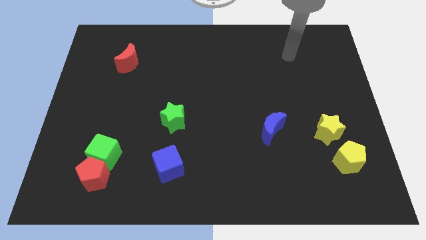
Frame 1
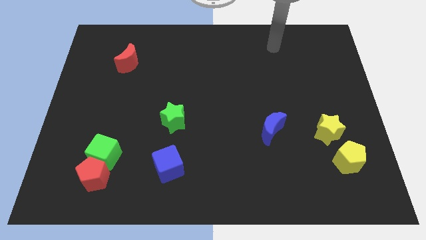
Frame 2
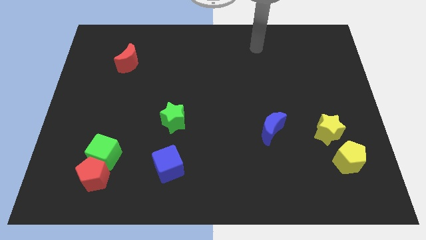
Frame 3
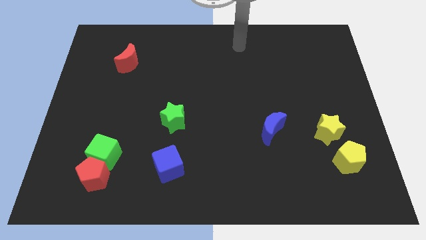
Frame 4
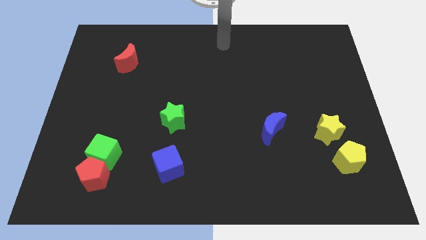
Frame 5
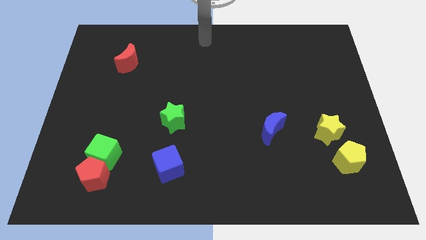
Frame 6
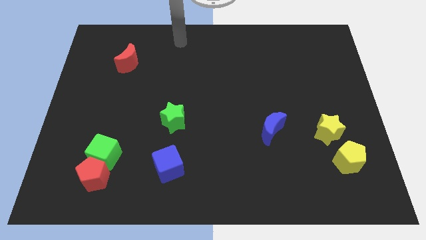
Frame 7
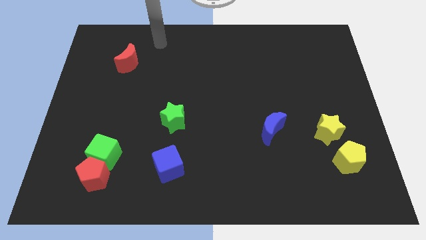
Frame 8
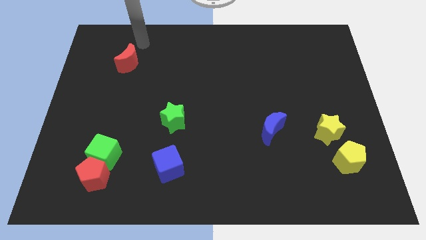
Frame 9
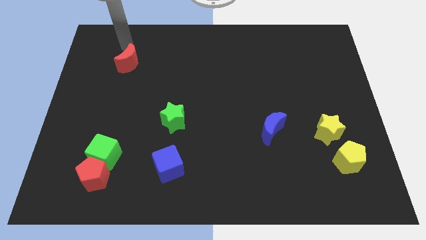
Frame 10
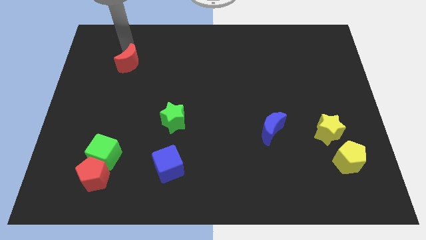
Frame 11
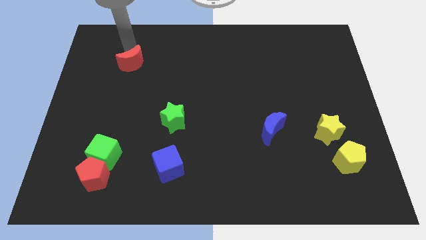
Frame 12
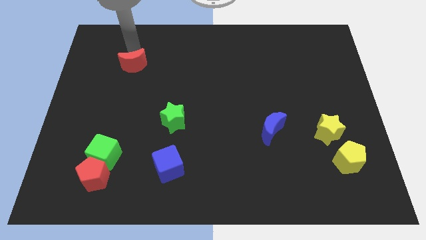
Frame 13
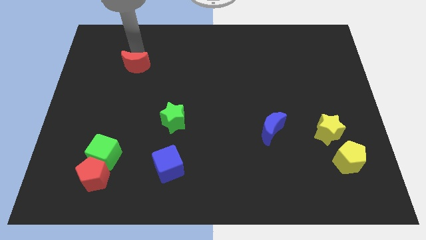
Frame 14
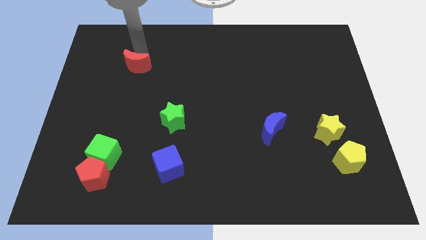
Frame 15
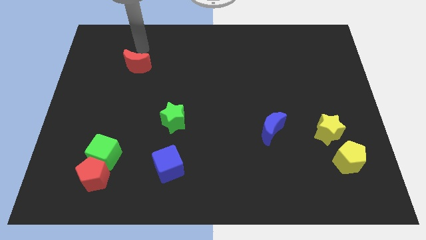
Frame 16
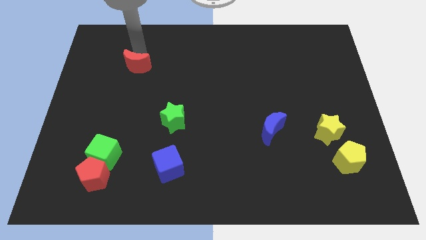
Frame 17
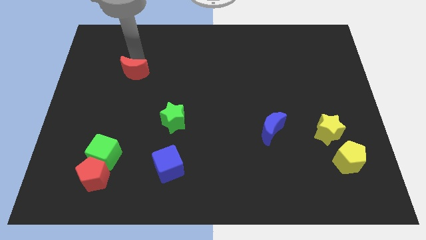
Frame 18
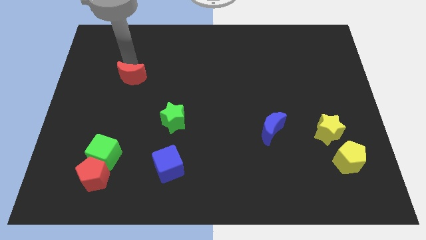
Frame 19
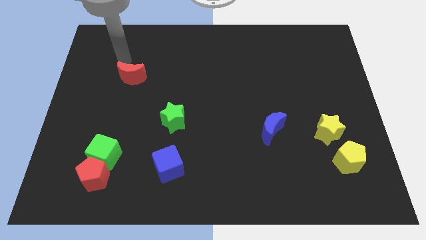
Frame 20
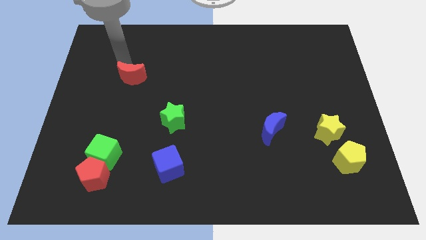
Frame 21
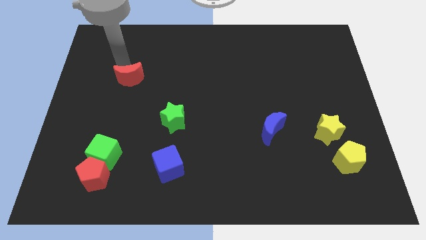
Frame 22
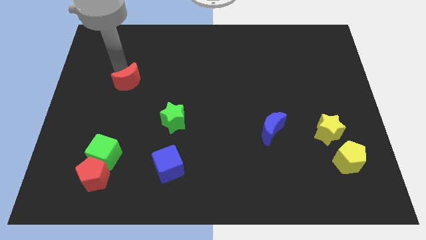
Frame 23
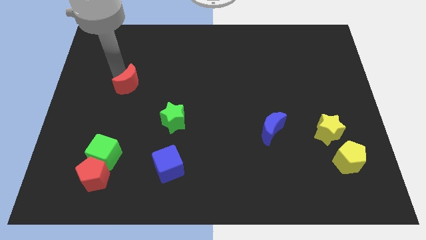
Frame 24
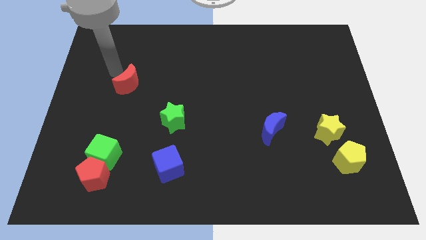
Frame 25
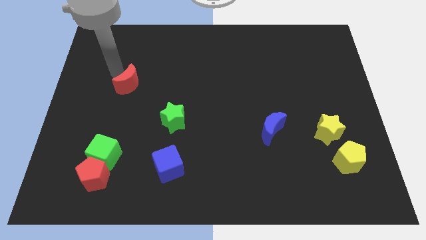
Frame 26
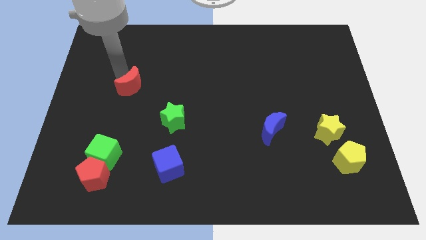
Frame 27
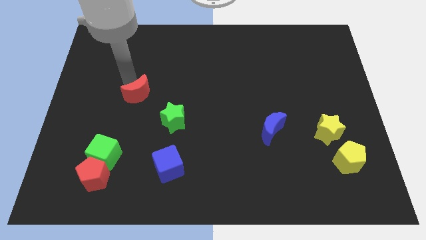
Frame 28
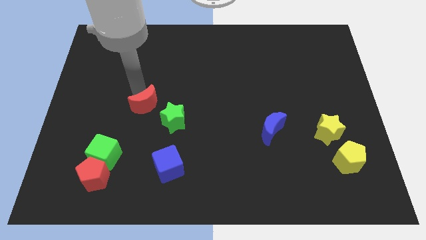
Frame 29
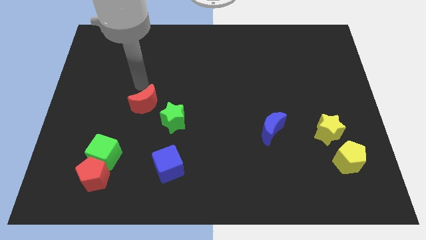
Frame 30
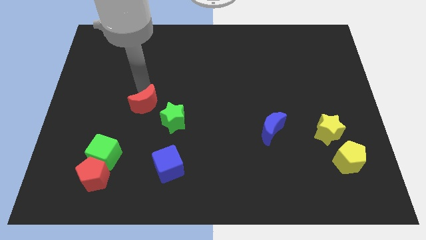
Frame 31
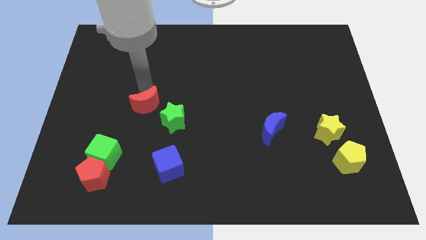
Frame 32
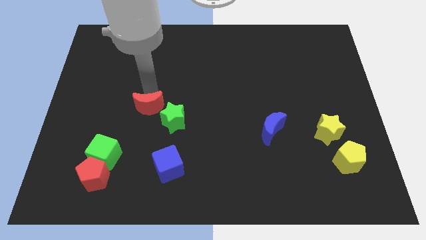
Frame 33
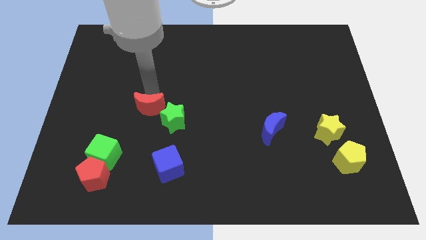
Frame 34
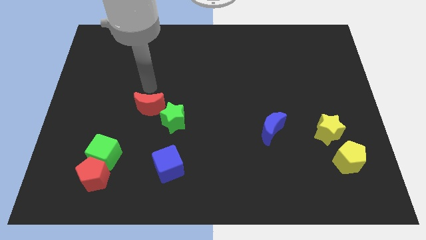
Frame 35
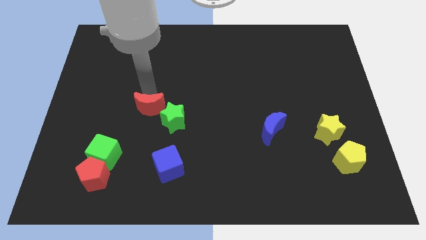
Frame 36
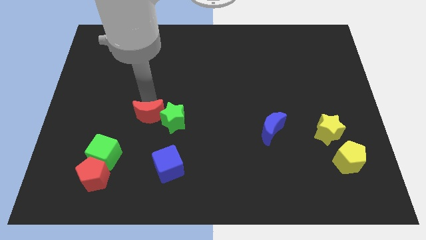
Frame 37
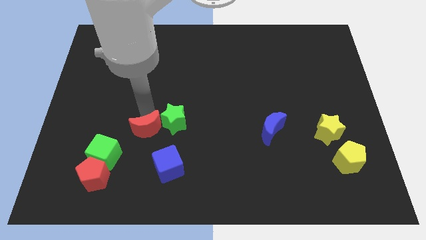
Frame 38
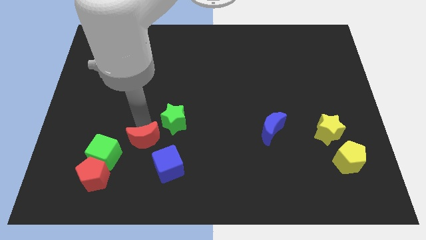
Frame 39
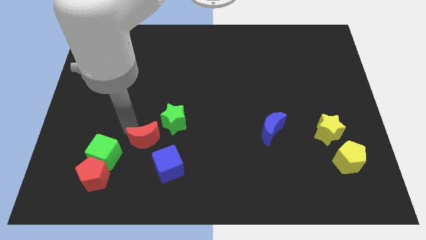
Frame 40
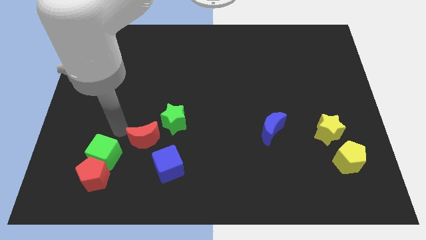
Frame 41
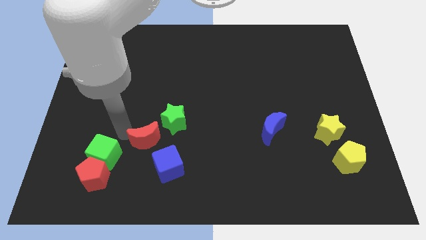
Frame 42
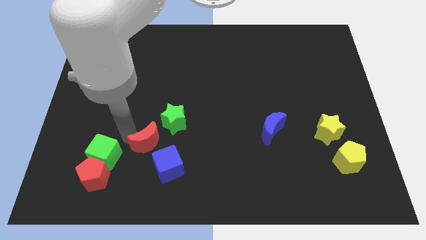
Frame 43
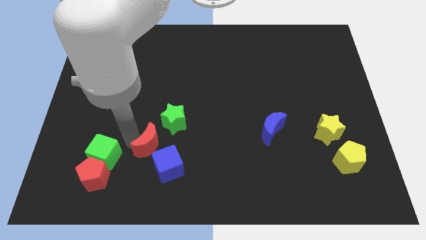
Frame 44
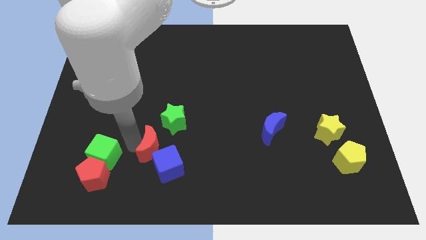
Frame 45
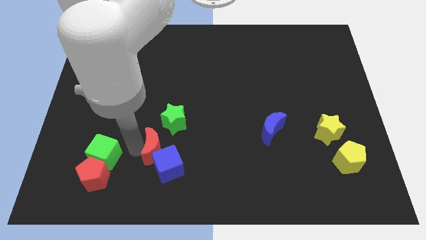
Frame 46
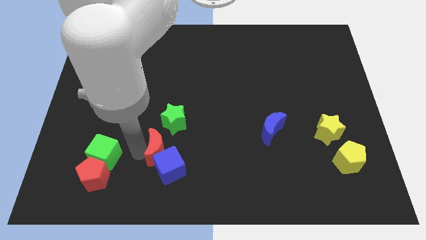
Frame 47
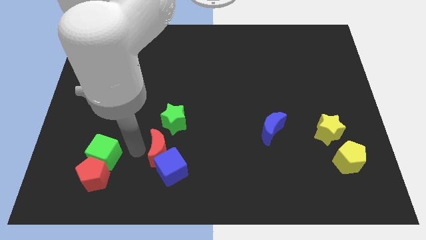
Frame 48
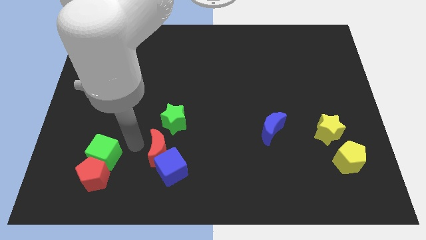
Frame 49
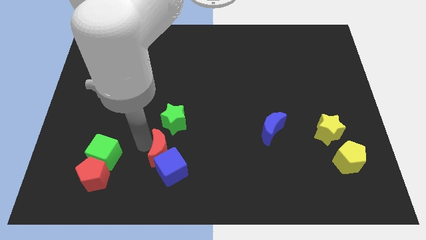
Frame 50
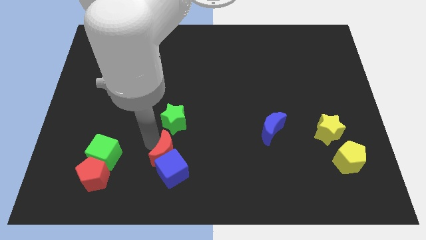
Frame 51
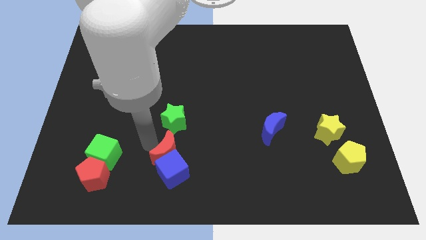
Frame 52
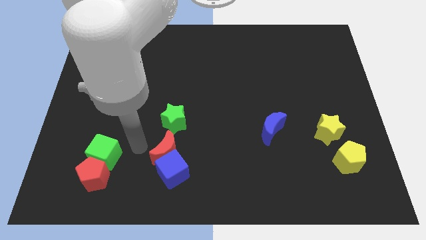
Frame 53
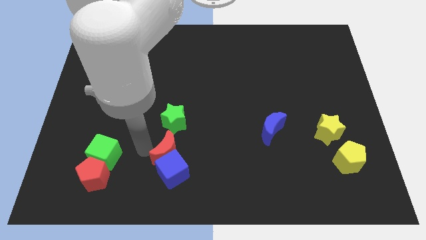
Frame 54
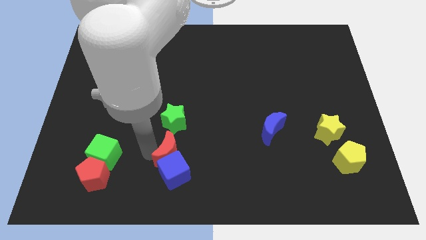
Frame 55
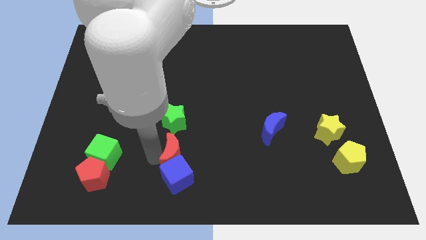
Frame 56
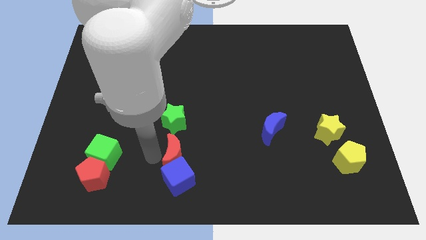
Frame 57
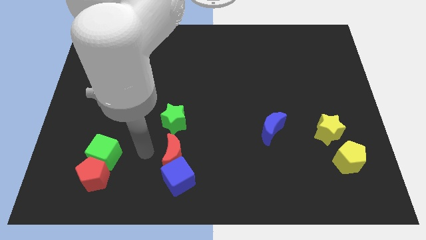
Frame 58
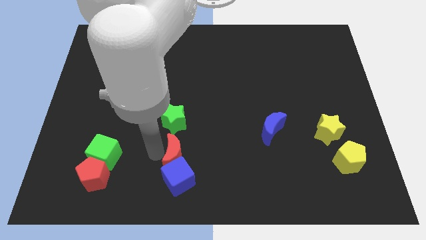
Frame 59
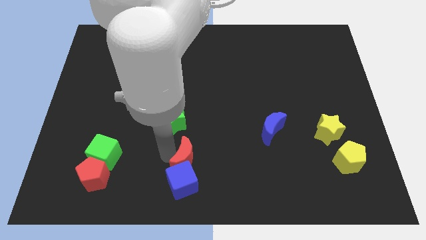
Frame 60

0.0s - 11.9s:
move the red moon to the bottom
